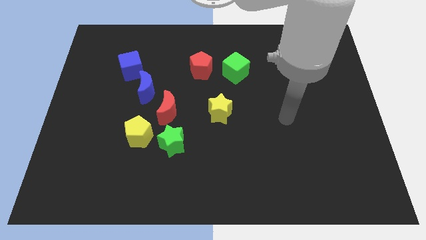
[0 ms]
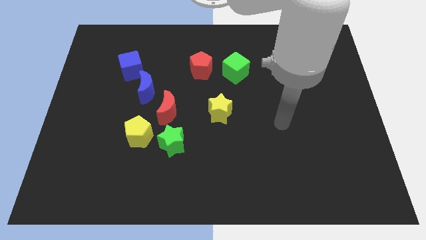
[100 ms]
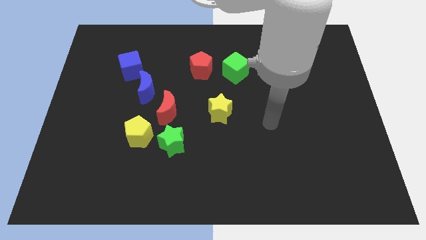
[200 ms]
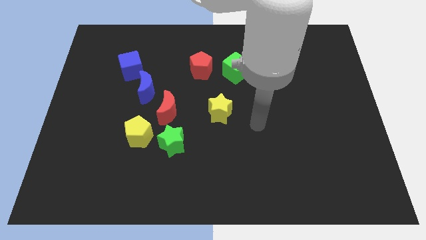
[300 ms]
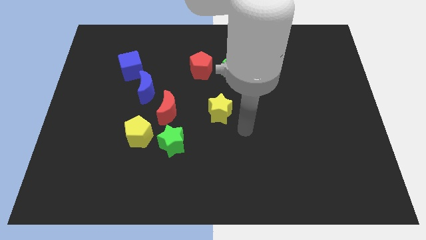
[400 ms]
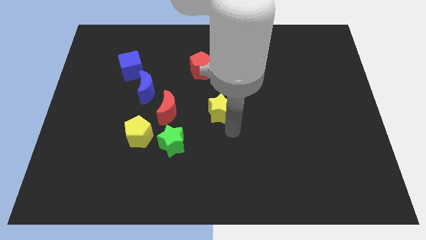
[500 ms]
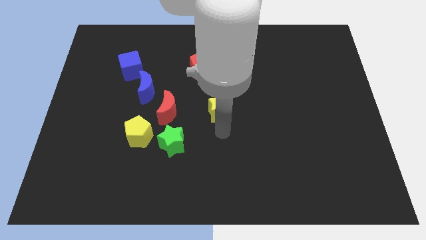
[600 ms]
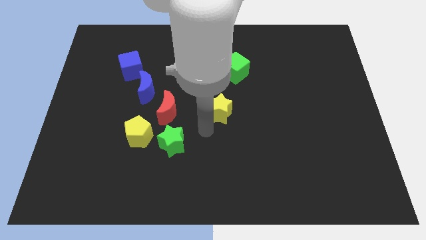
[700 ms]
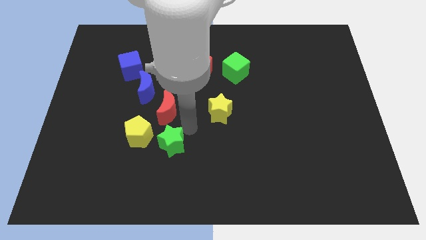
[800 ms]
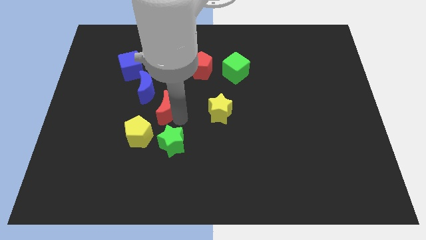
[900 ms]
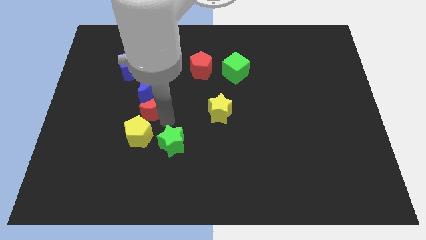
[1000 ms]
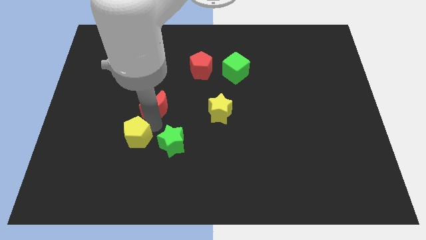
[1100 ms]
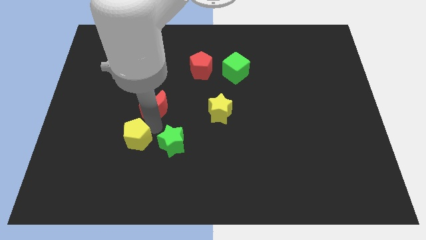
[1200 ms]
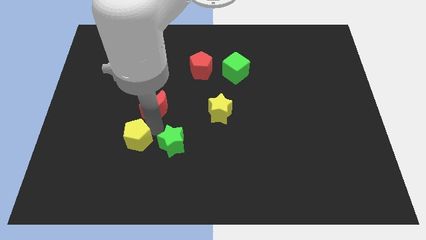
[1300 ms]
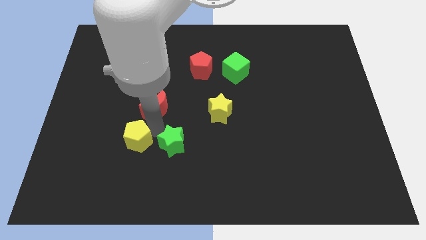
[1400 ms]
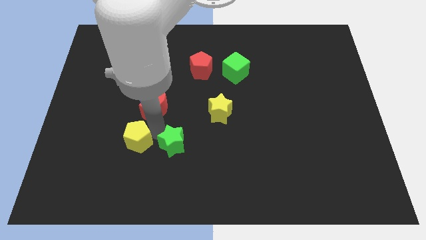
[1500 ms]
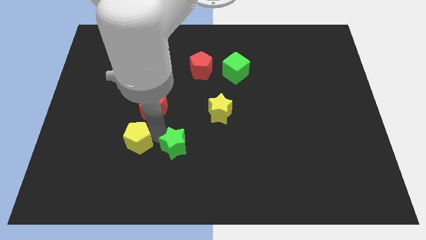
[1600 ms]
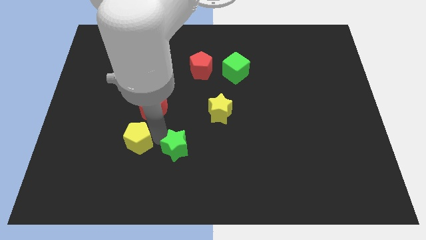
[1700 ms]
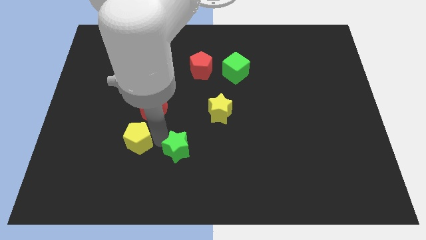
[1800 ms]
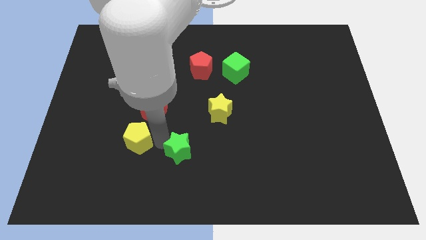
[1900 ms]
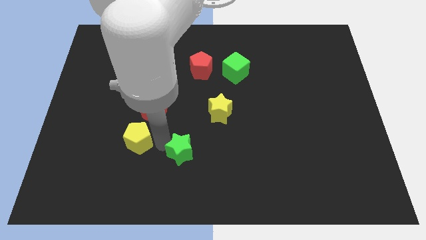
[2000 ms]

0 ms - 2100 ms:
move the green star away from the yellow pentagon and red moon

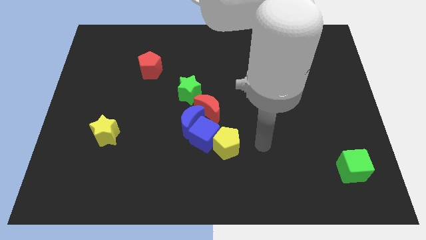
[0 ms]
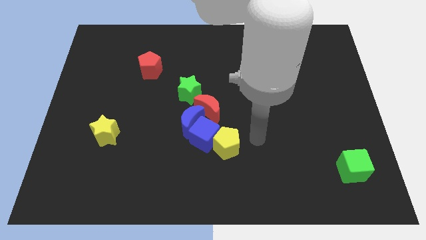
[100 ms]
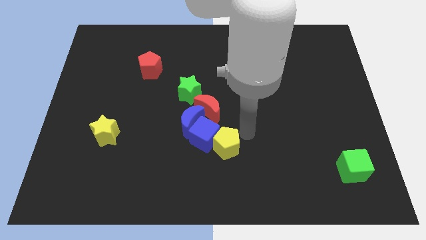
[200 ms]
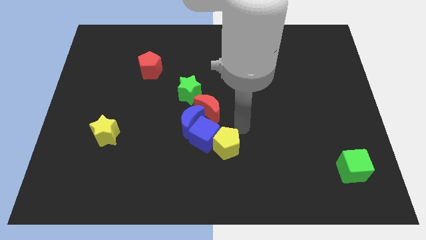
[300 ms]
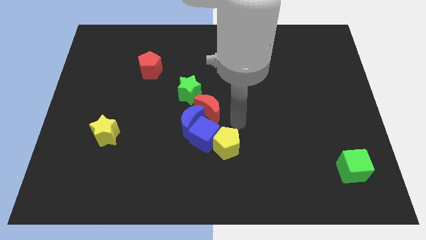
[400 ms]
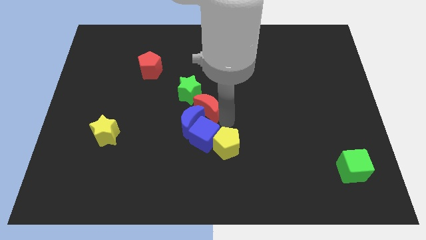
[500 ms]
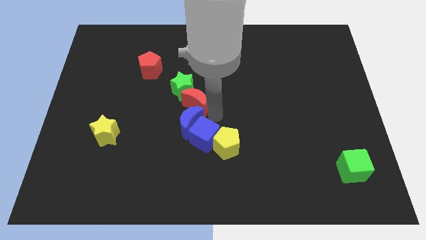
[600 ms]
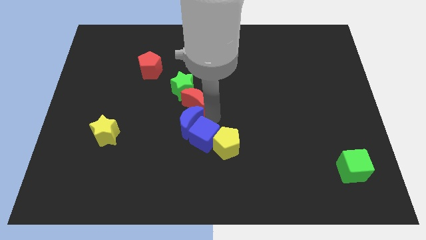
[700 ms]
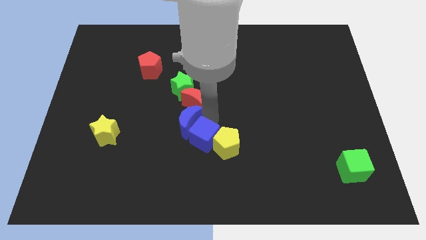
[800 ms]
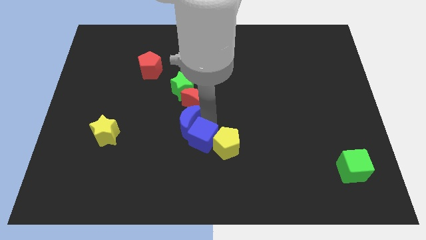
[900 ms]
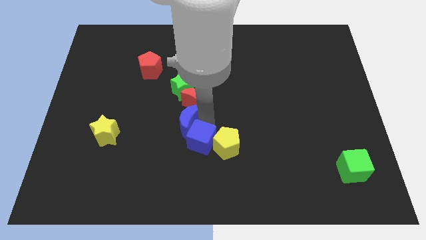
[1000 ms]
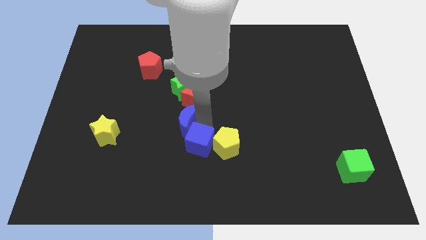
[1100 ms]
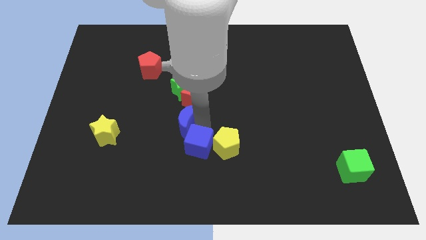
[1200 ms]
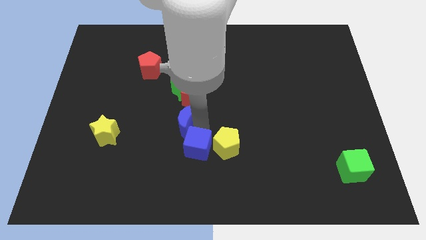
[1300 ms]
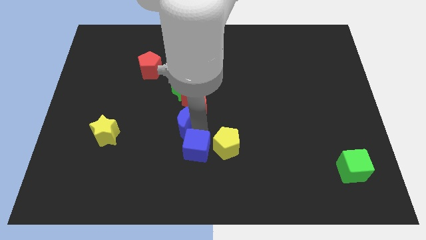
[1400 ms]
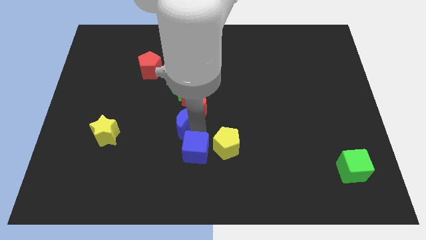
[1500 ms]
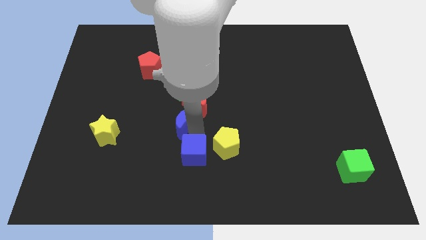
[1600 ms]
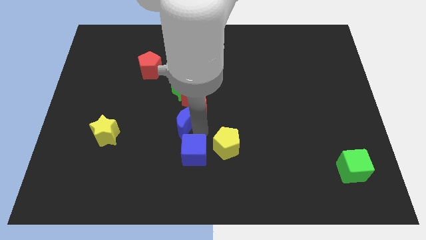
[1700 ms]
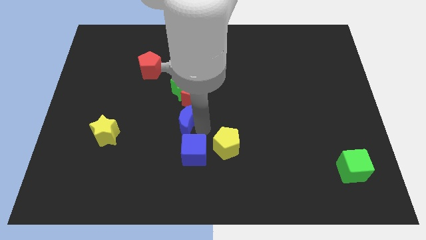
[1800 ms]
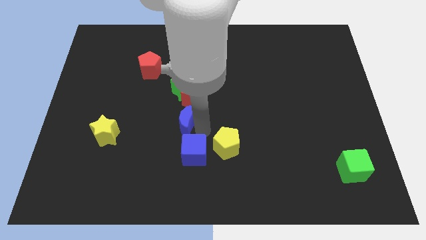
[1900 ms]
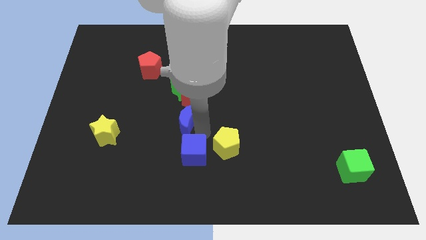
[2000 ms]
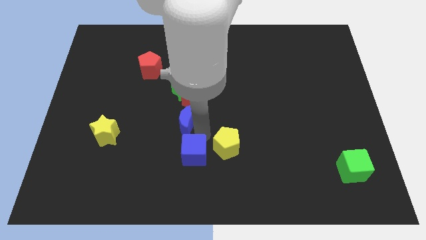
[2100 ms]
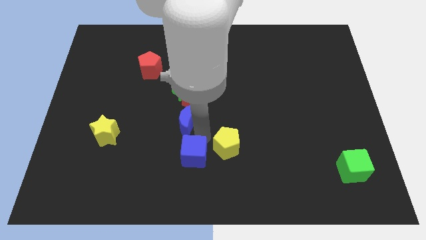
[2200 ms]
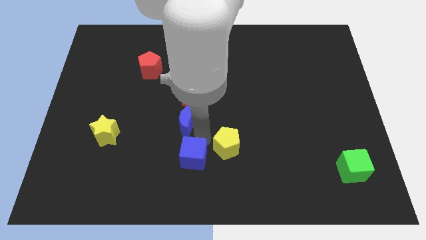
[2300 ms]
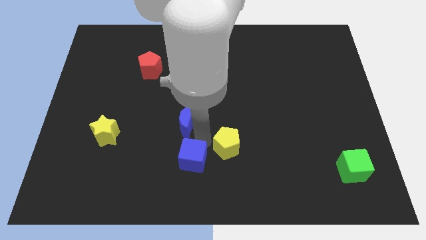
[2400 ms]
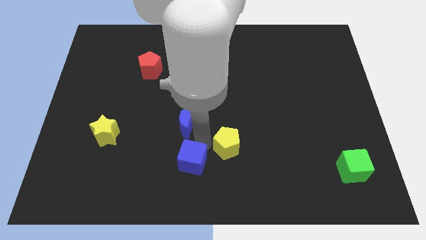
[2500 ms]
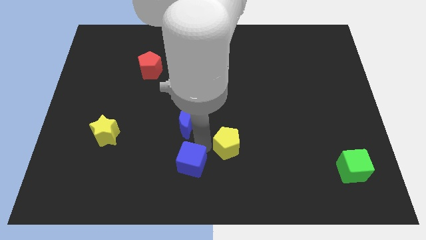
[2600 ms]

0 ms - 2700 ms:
move the blue cube away from the blue moon, yellow pentagon, and red moon

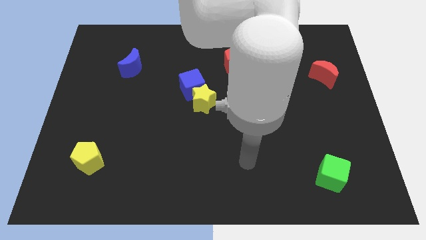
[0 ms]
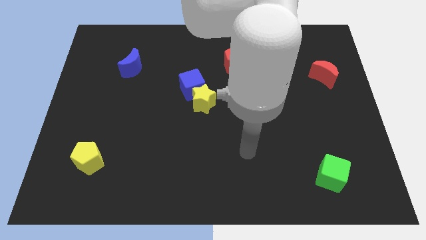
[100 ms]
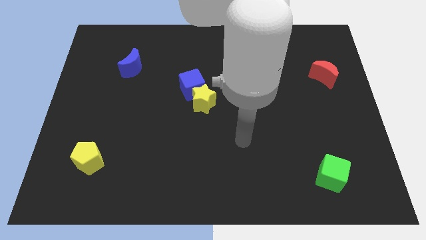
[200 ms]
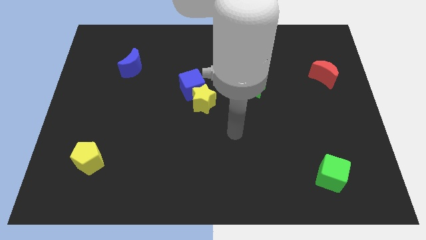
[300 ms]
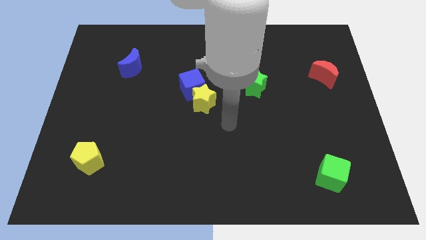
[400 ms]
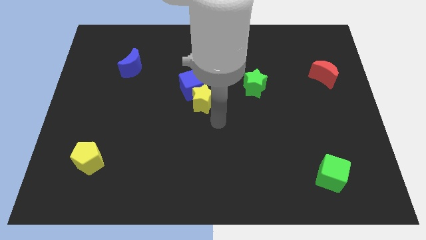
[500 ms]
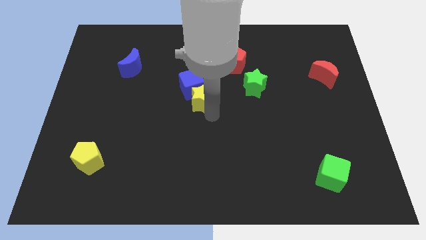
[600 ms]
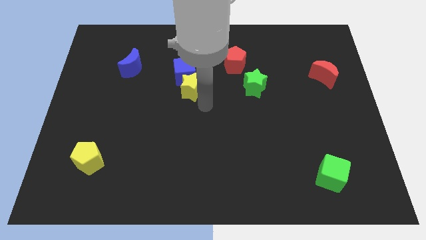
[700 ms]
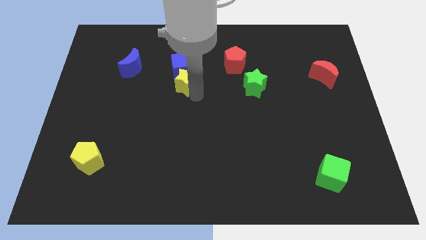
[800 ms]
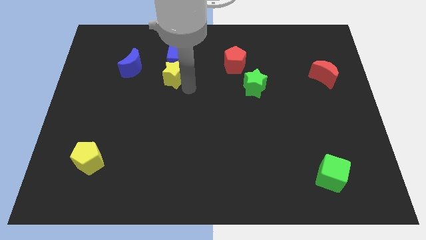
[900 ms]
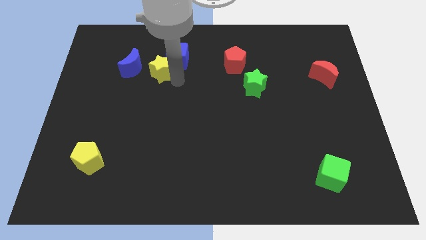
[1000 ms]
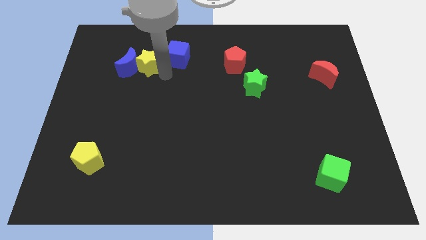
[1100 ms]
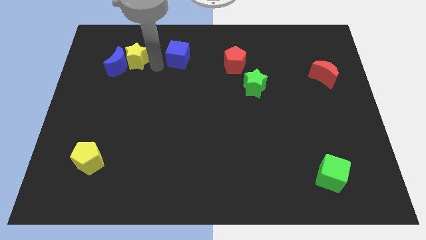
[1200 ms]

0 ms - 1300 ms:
move the blue cube away from the yellow star

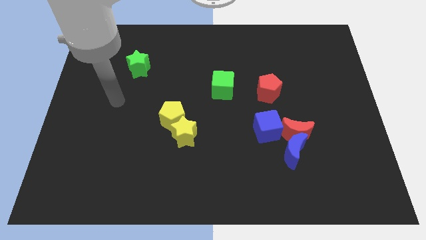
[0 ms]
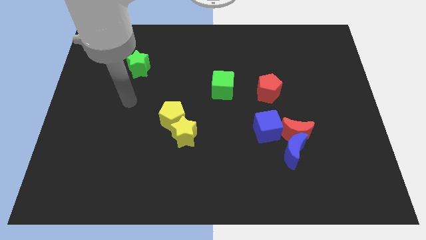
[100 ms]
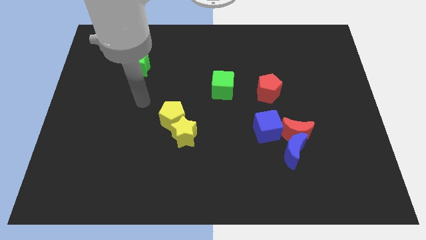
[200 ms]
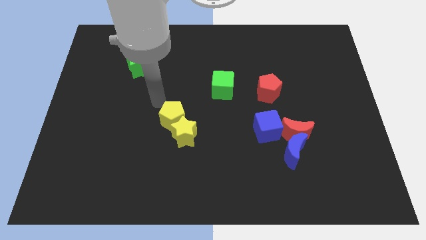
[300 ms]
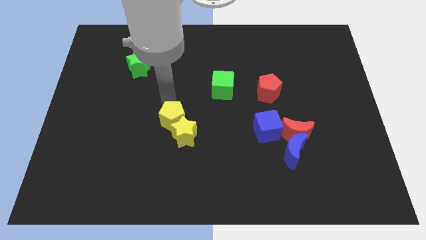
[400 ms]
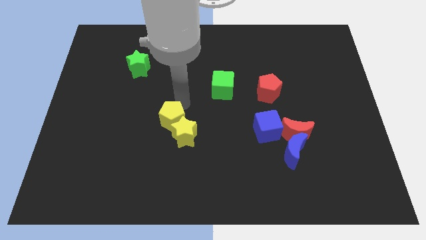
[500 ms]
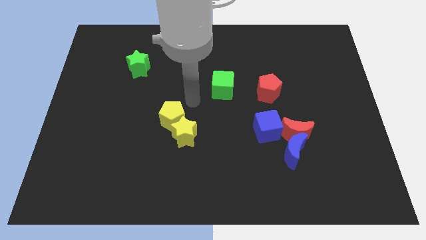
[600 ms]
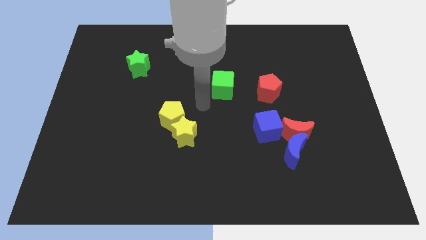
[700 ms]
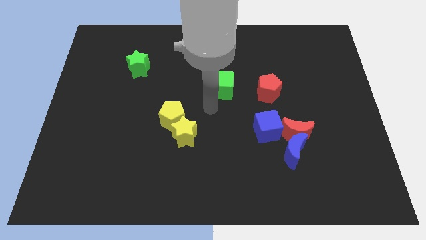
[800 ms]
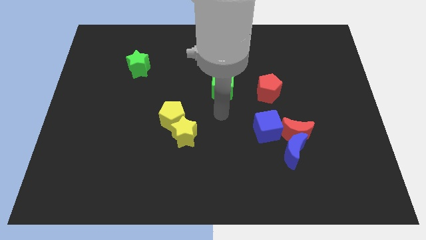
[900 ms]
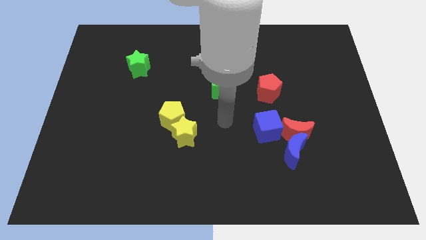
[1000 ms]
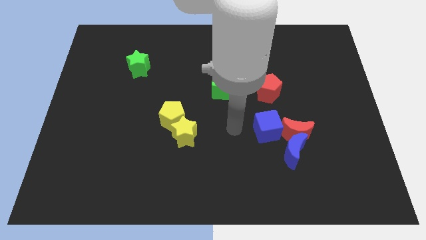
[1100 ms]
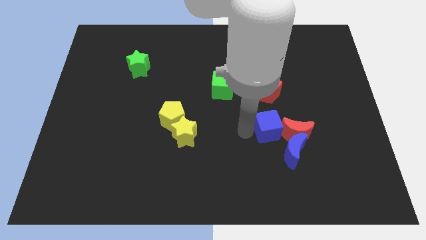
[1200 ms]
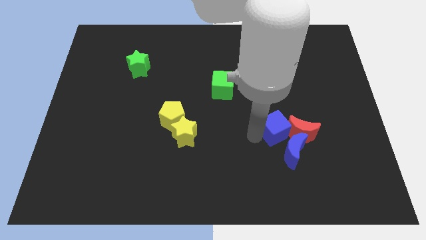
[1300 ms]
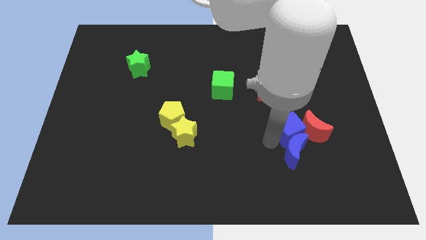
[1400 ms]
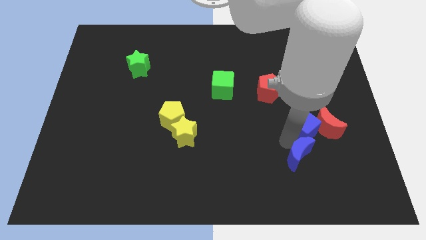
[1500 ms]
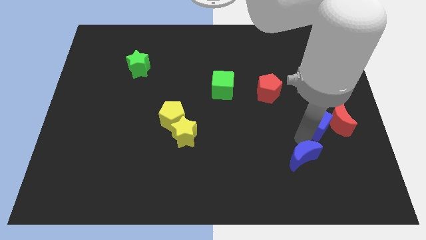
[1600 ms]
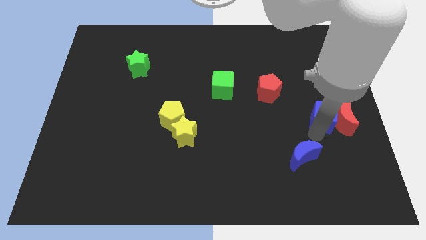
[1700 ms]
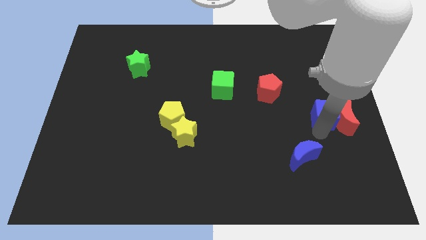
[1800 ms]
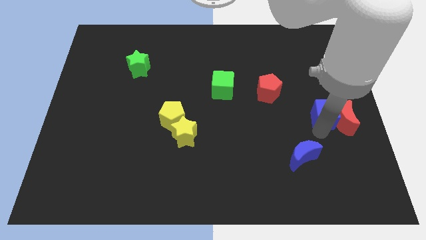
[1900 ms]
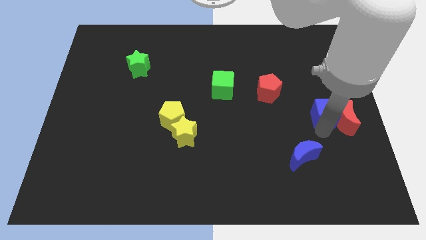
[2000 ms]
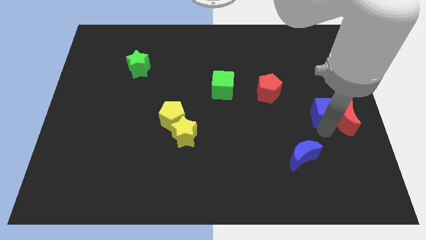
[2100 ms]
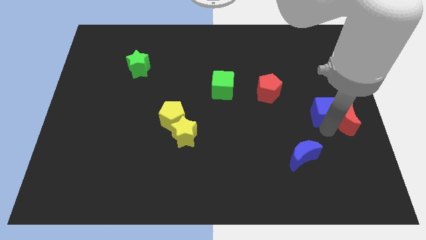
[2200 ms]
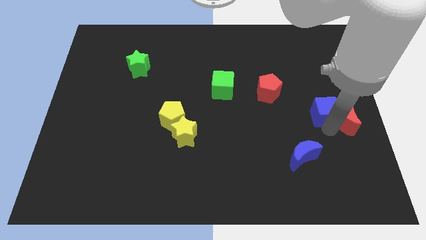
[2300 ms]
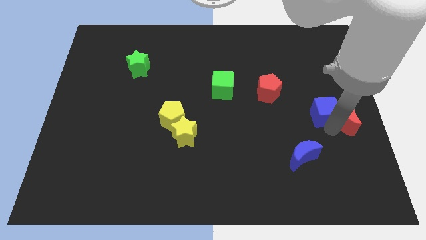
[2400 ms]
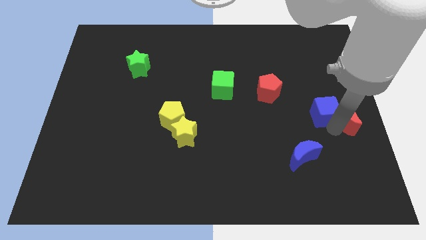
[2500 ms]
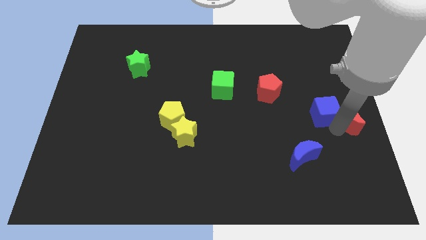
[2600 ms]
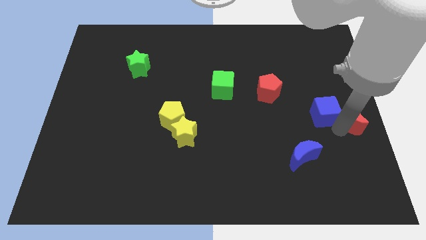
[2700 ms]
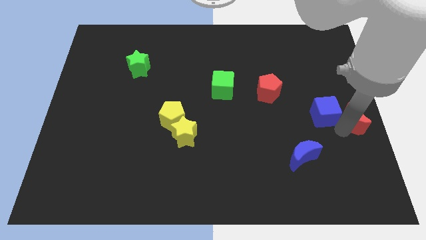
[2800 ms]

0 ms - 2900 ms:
move the red moon away from the blue moon and blue cube

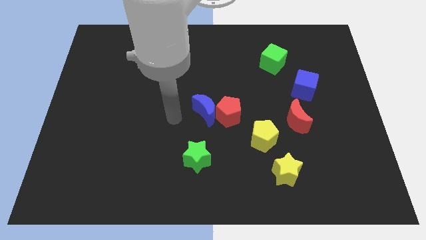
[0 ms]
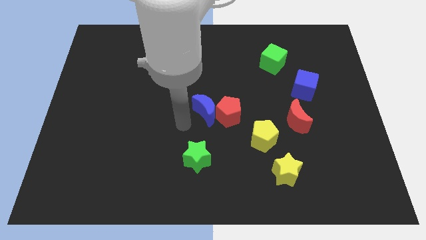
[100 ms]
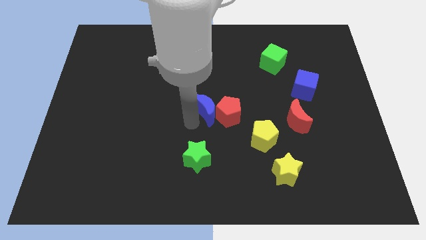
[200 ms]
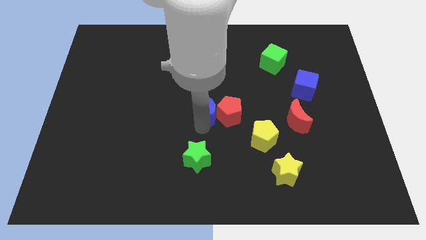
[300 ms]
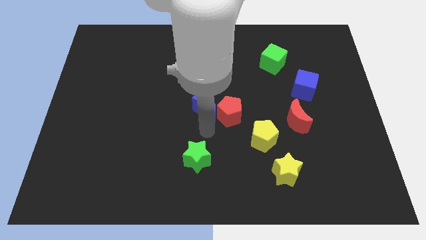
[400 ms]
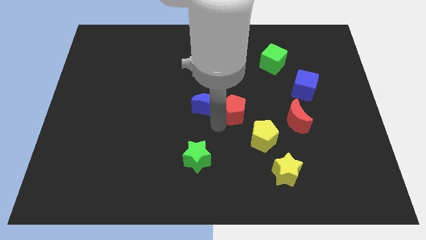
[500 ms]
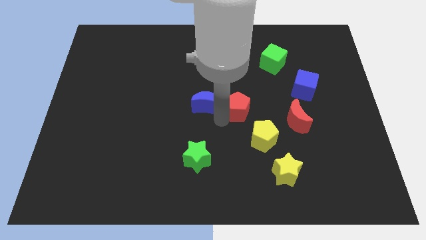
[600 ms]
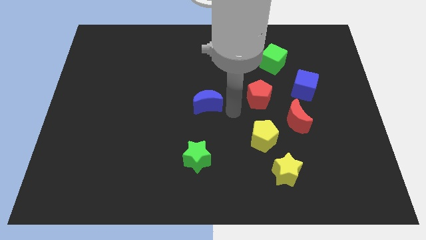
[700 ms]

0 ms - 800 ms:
separate the blue moon from the red pentagon
